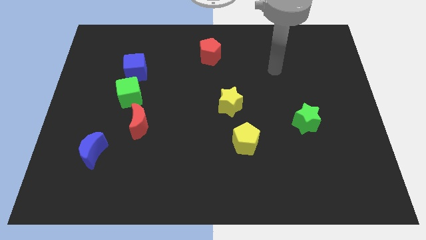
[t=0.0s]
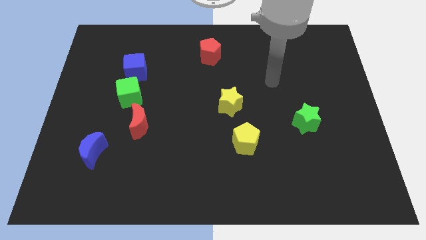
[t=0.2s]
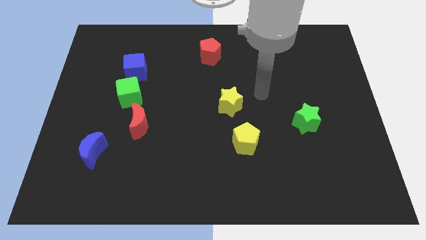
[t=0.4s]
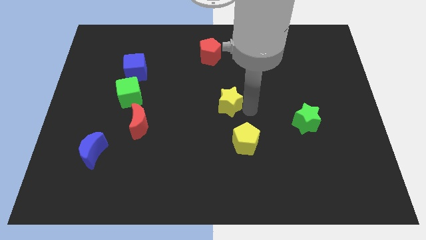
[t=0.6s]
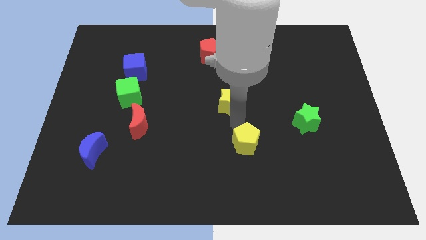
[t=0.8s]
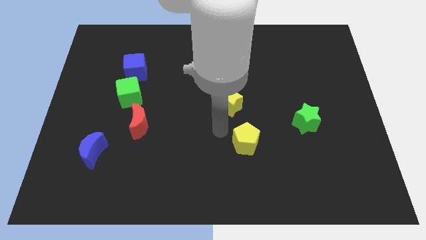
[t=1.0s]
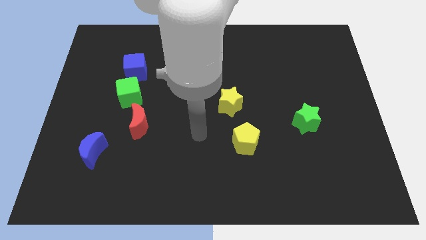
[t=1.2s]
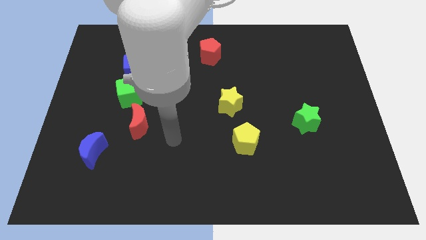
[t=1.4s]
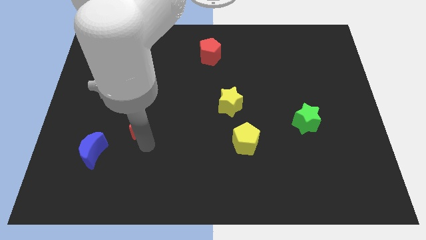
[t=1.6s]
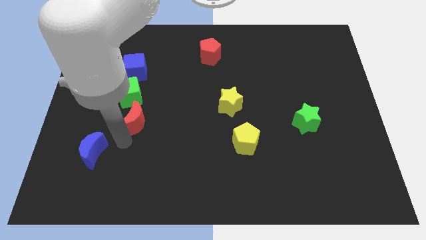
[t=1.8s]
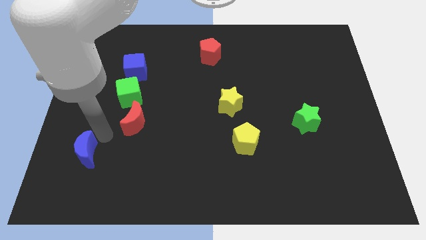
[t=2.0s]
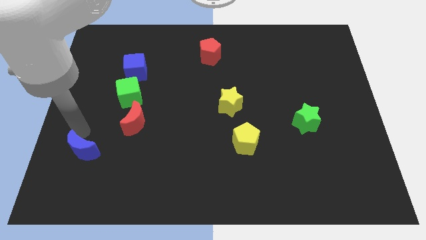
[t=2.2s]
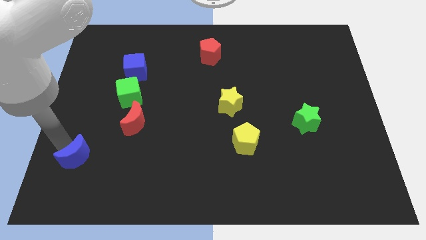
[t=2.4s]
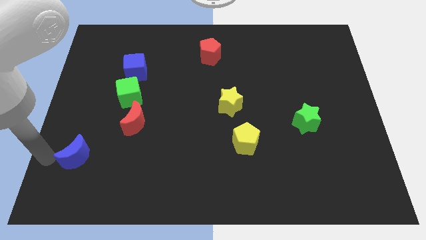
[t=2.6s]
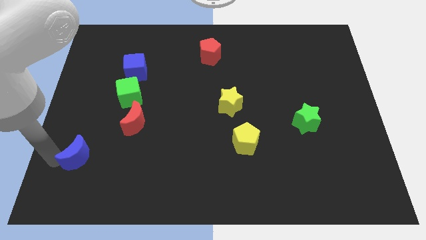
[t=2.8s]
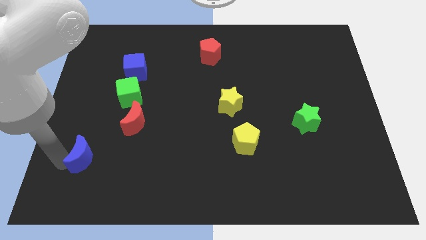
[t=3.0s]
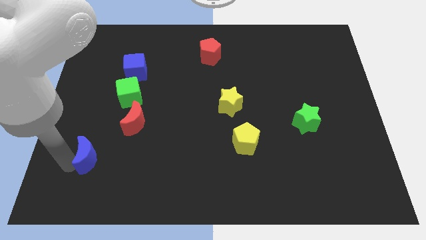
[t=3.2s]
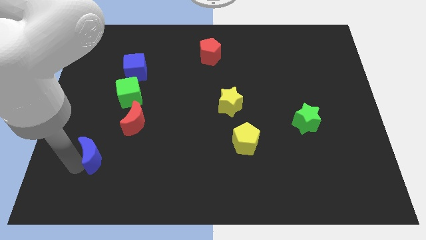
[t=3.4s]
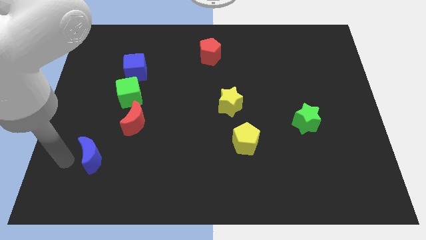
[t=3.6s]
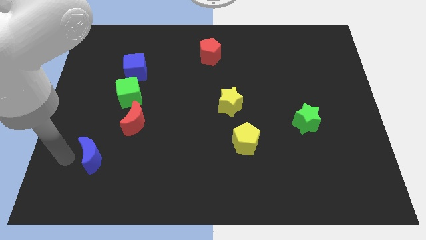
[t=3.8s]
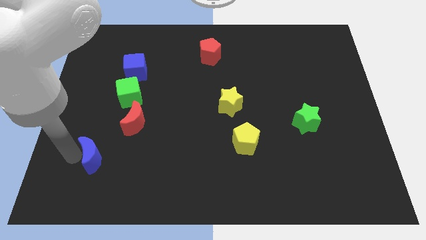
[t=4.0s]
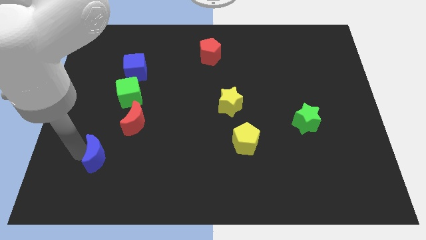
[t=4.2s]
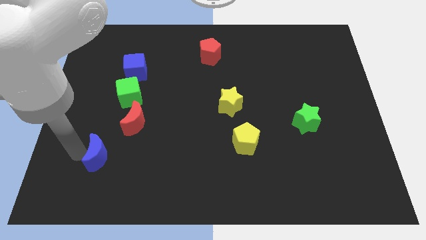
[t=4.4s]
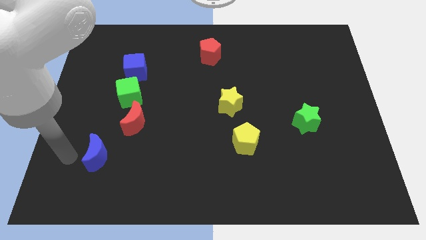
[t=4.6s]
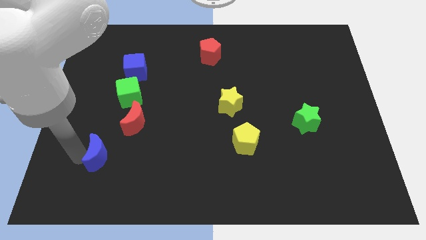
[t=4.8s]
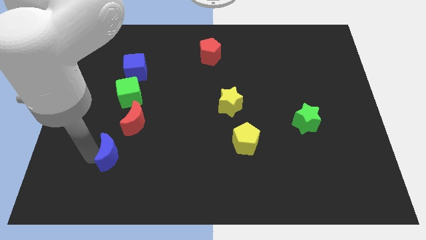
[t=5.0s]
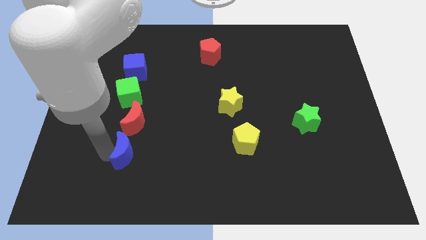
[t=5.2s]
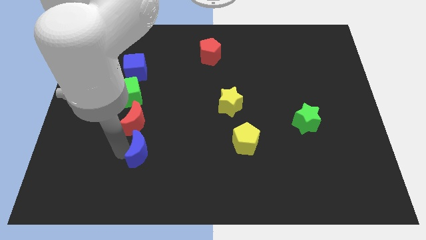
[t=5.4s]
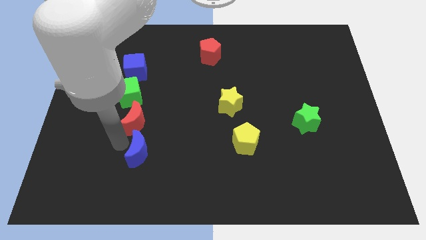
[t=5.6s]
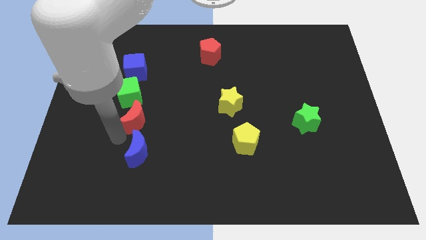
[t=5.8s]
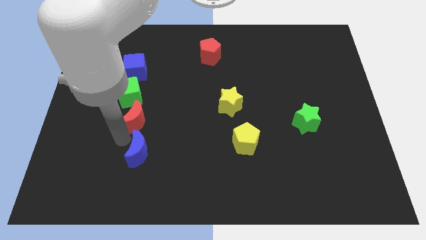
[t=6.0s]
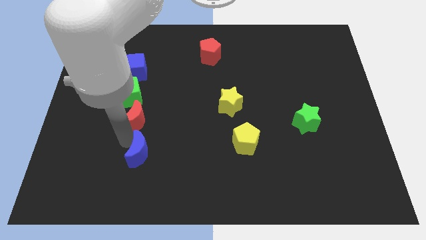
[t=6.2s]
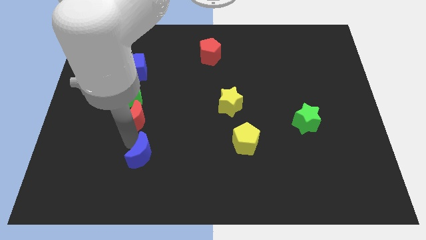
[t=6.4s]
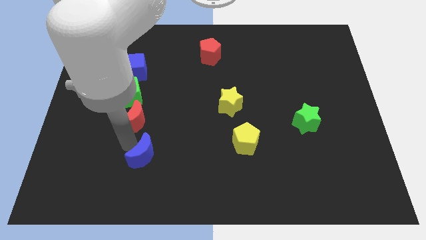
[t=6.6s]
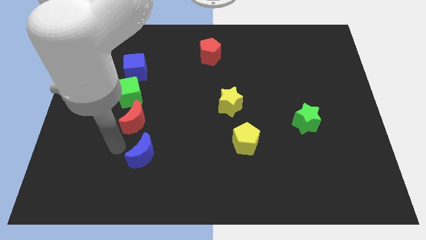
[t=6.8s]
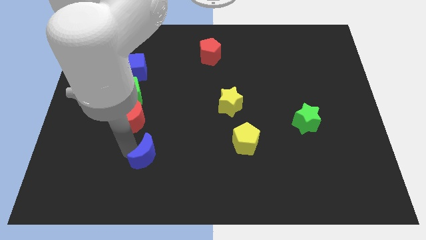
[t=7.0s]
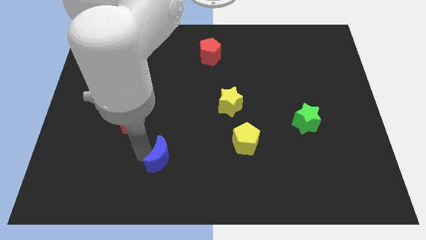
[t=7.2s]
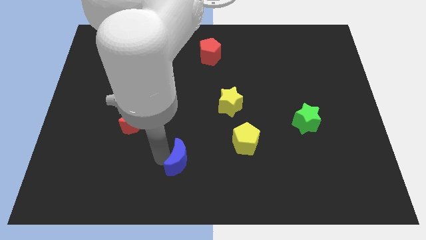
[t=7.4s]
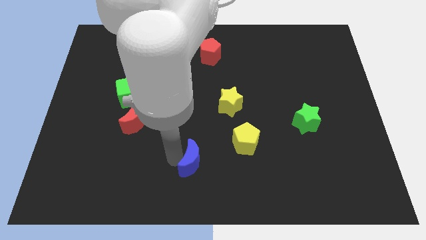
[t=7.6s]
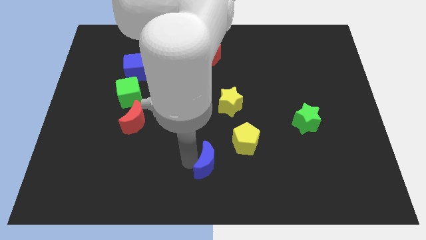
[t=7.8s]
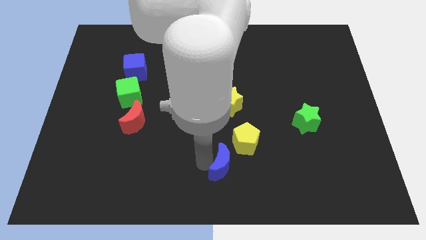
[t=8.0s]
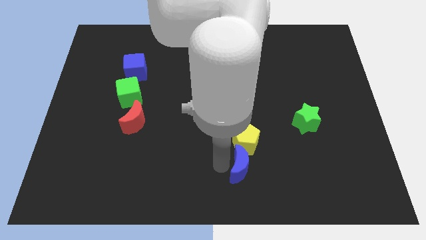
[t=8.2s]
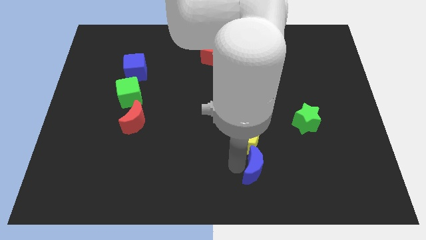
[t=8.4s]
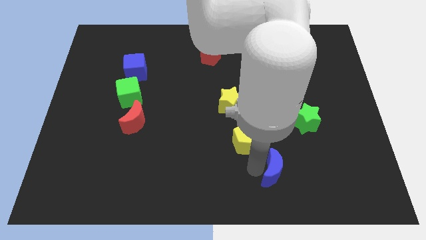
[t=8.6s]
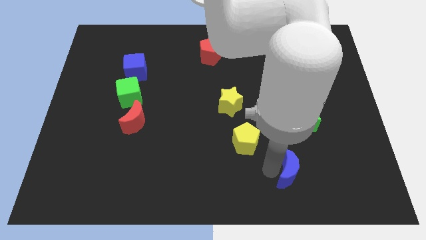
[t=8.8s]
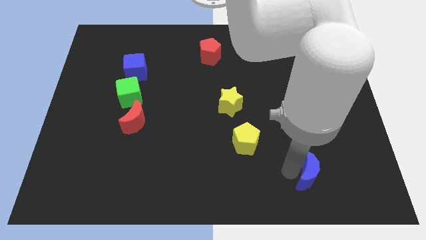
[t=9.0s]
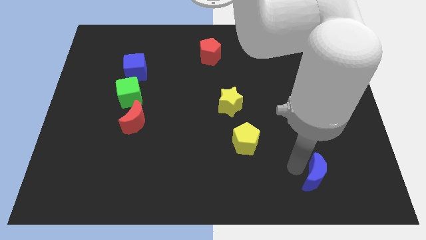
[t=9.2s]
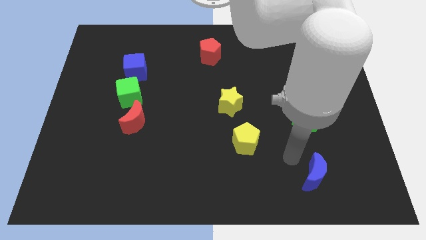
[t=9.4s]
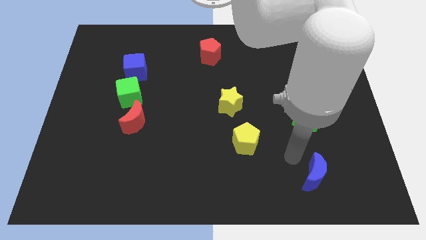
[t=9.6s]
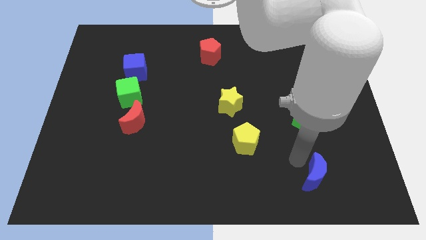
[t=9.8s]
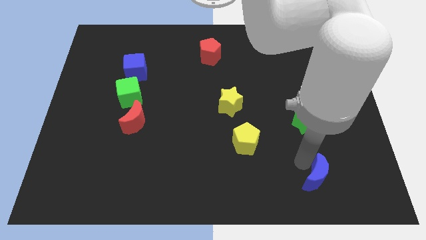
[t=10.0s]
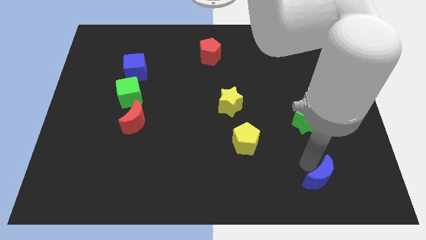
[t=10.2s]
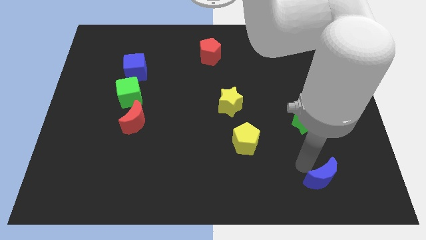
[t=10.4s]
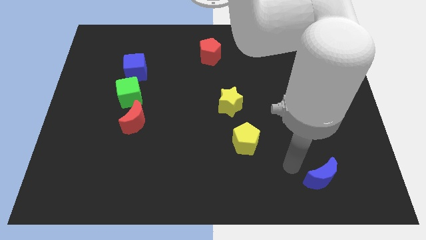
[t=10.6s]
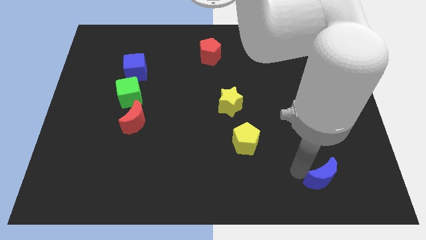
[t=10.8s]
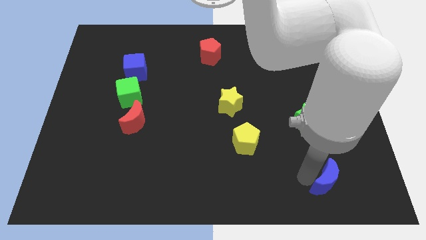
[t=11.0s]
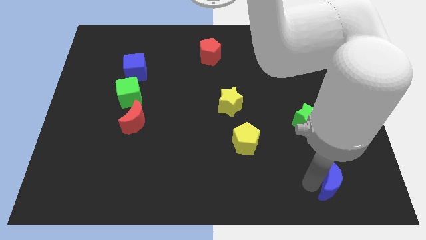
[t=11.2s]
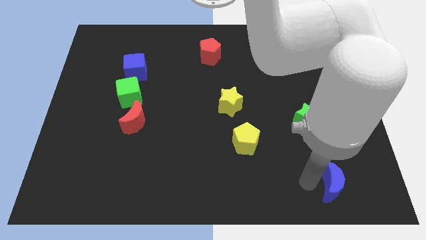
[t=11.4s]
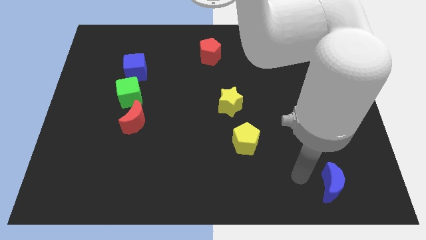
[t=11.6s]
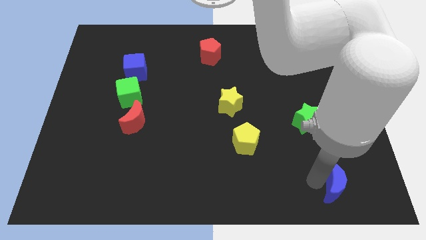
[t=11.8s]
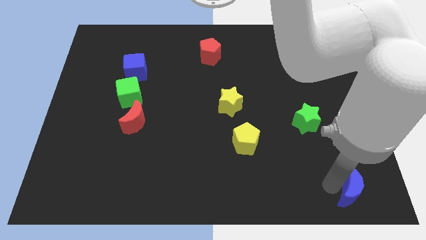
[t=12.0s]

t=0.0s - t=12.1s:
push the blue moon to the lower right corner

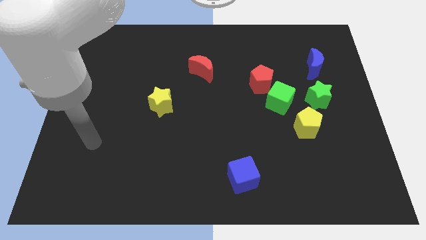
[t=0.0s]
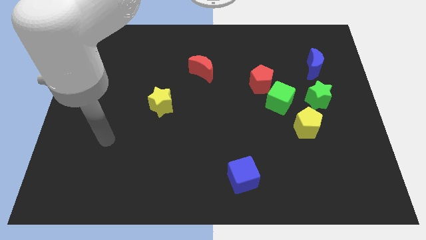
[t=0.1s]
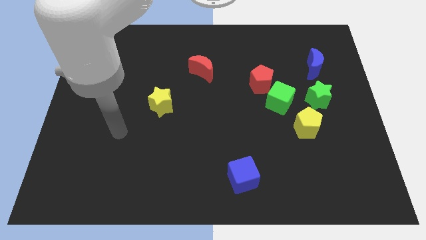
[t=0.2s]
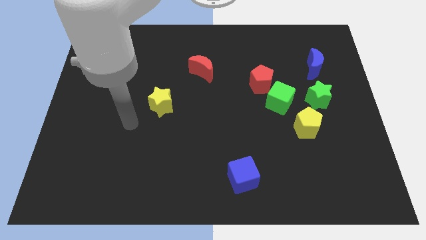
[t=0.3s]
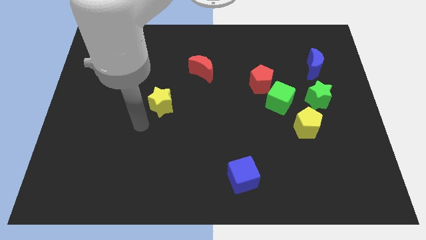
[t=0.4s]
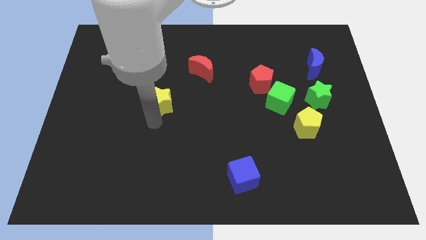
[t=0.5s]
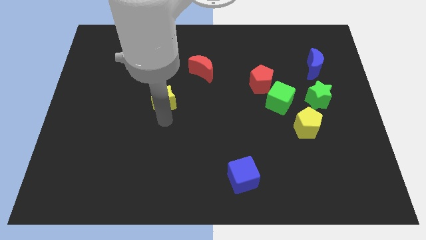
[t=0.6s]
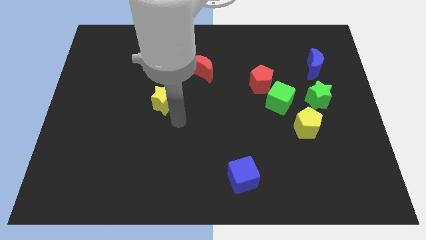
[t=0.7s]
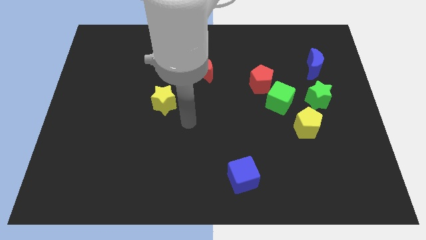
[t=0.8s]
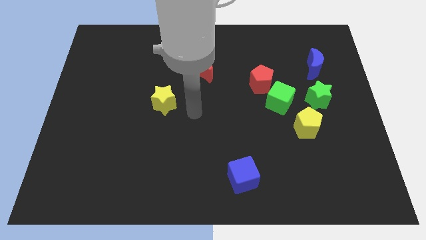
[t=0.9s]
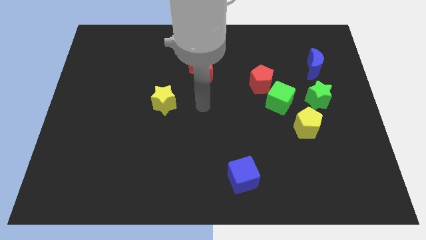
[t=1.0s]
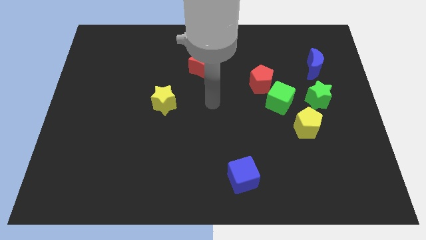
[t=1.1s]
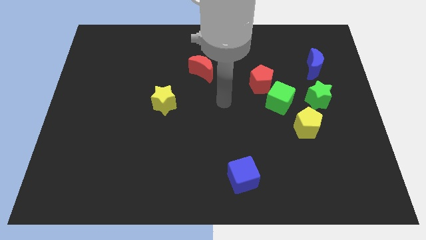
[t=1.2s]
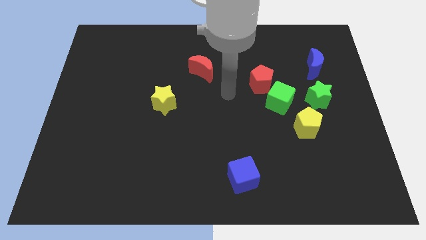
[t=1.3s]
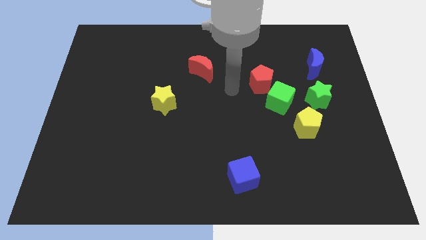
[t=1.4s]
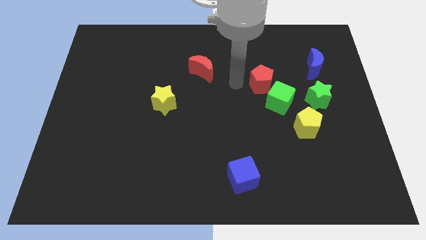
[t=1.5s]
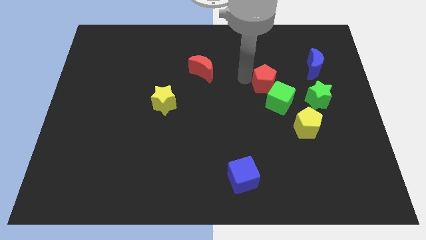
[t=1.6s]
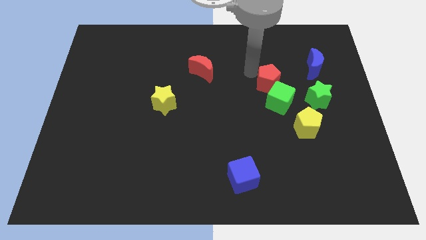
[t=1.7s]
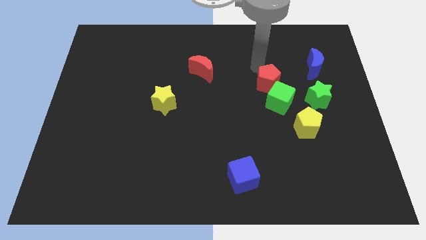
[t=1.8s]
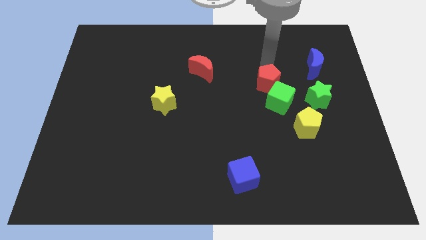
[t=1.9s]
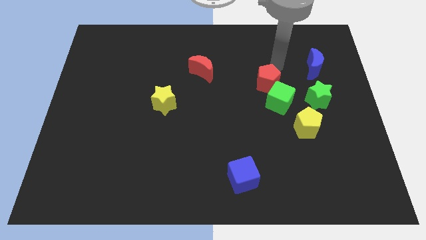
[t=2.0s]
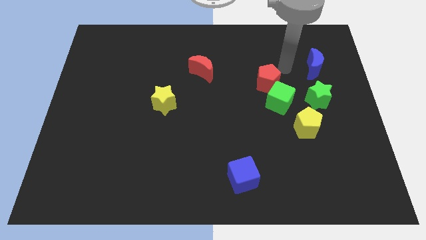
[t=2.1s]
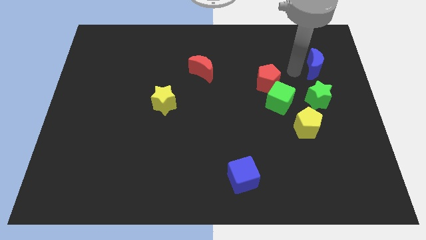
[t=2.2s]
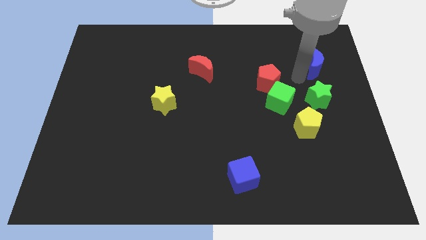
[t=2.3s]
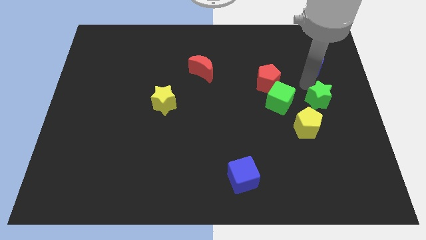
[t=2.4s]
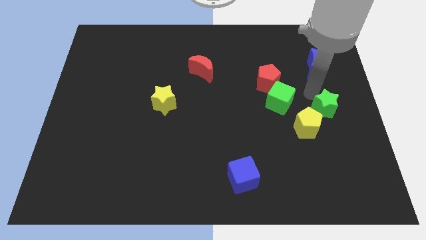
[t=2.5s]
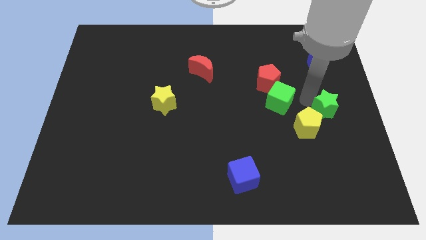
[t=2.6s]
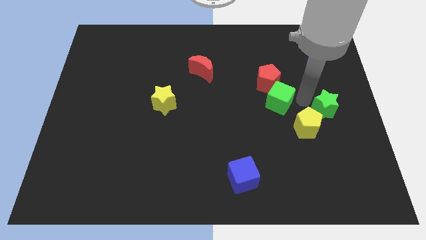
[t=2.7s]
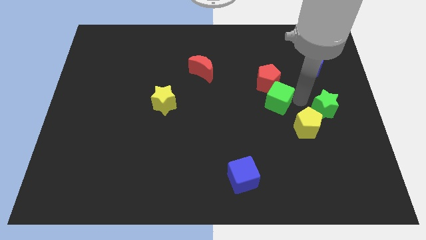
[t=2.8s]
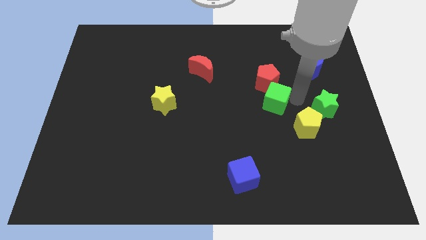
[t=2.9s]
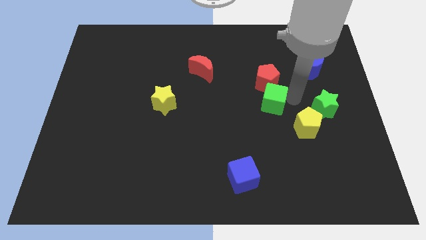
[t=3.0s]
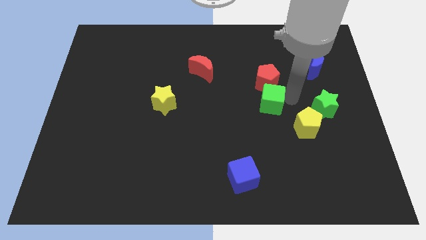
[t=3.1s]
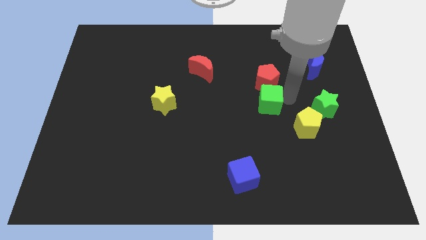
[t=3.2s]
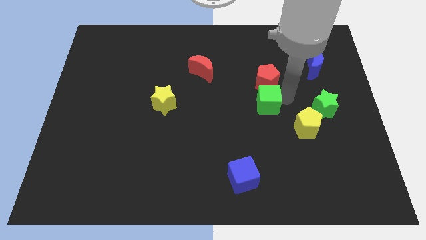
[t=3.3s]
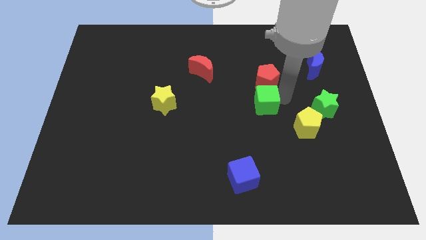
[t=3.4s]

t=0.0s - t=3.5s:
move the green cube to the center of the board
